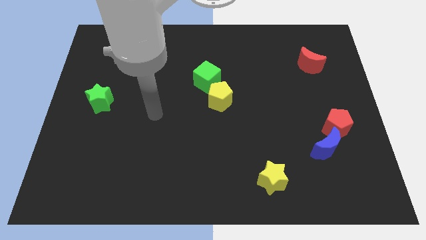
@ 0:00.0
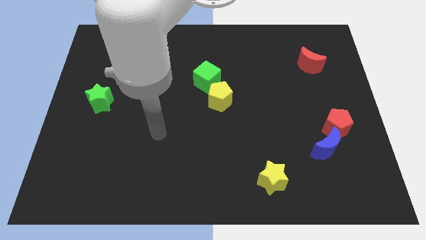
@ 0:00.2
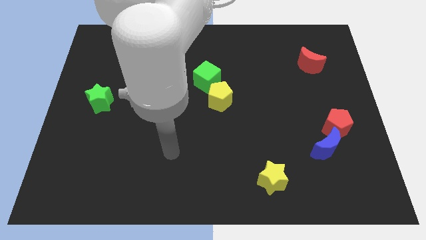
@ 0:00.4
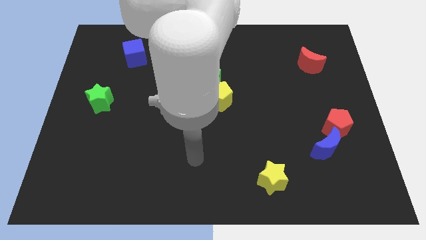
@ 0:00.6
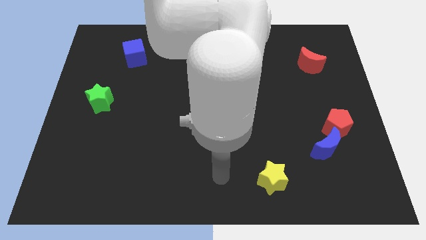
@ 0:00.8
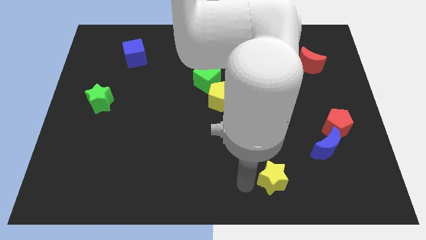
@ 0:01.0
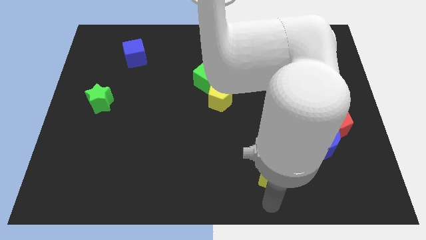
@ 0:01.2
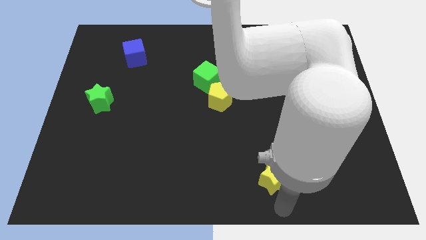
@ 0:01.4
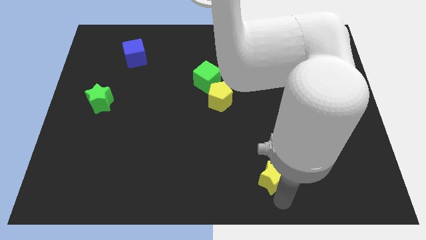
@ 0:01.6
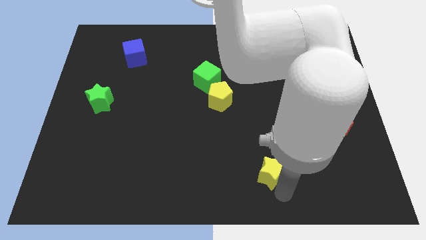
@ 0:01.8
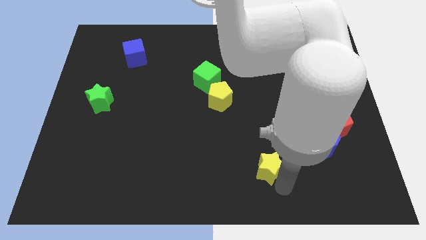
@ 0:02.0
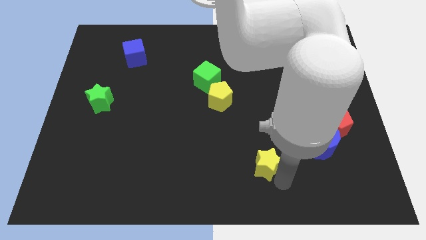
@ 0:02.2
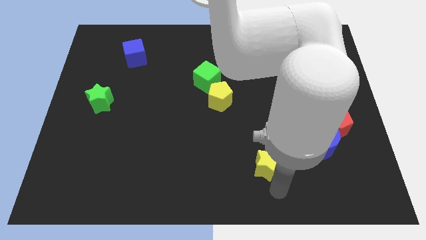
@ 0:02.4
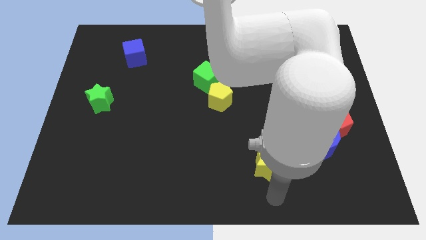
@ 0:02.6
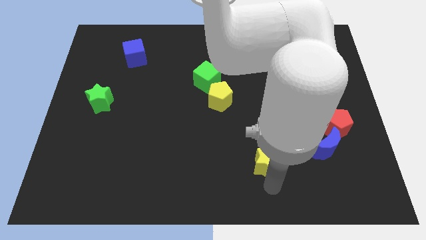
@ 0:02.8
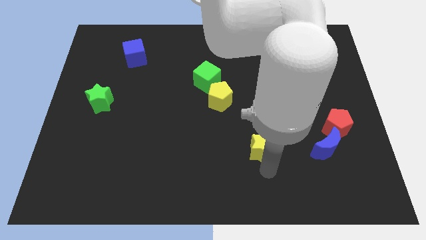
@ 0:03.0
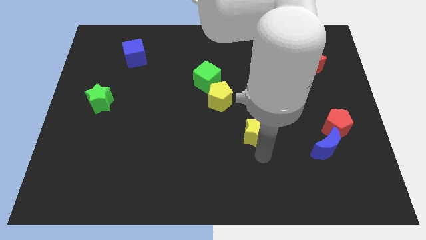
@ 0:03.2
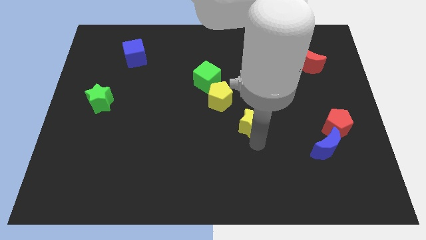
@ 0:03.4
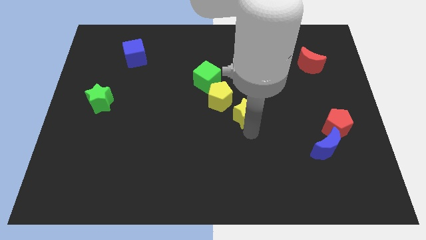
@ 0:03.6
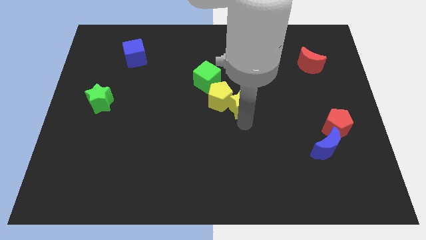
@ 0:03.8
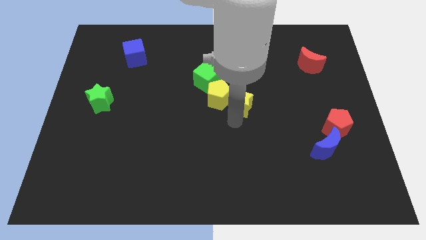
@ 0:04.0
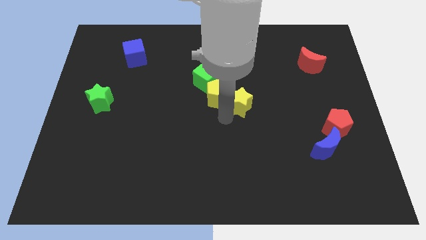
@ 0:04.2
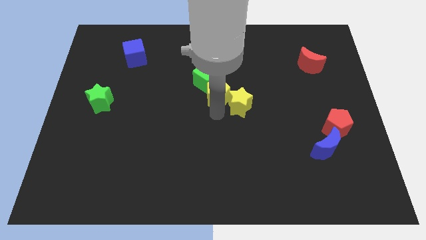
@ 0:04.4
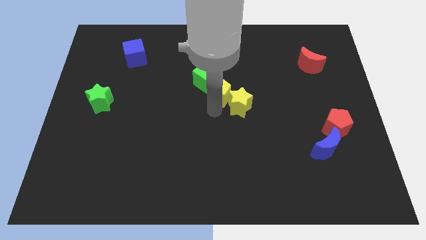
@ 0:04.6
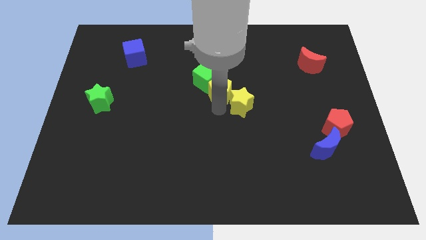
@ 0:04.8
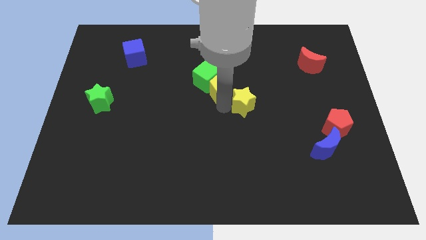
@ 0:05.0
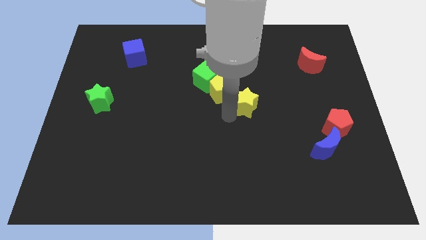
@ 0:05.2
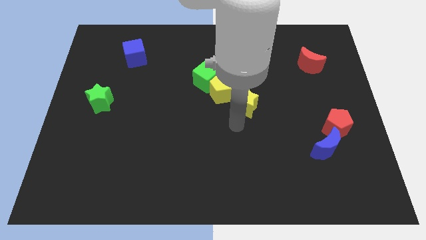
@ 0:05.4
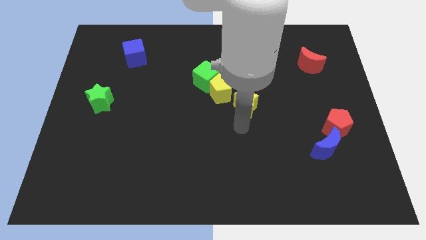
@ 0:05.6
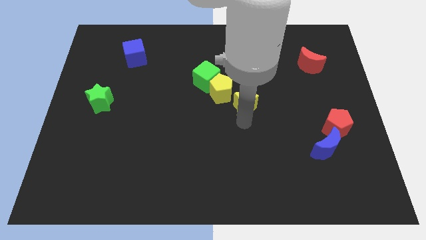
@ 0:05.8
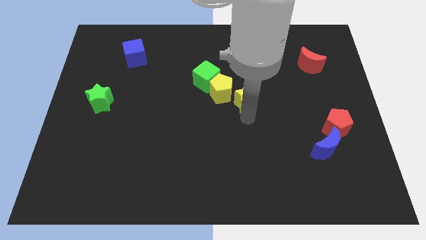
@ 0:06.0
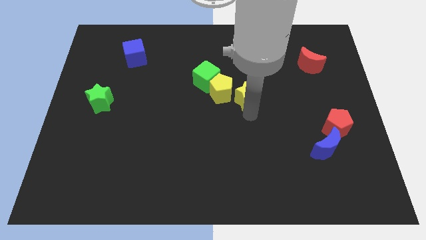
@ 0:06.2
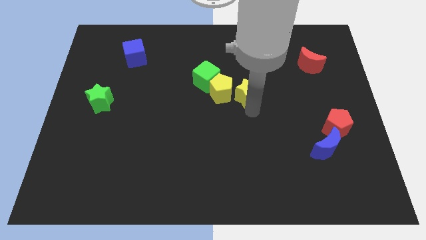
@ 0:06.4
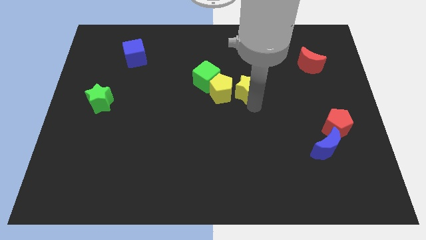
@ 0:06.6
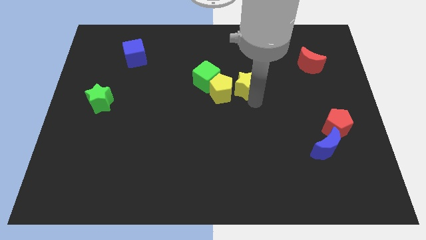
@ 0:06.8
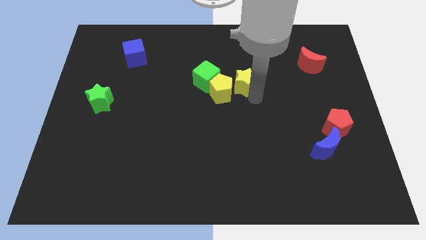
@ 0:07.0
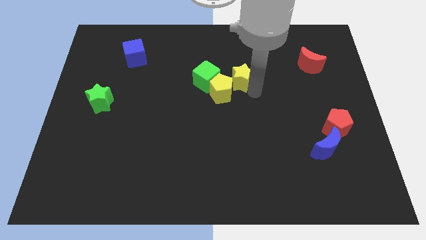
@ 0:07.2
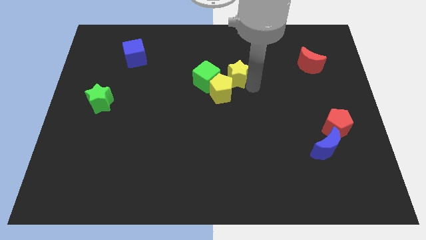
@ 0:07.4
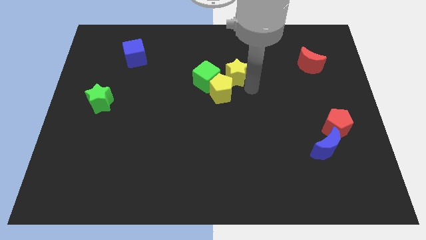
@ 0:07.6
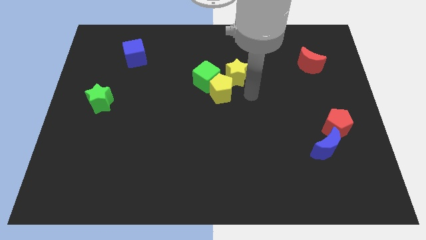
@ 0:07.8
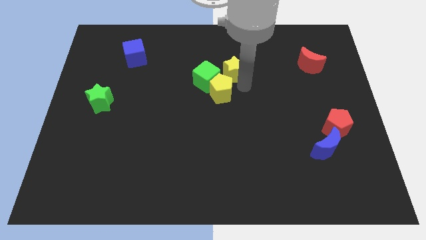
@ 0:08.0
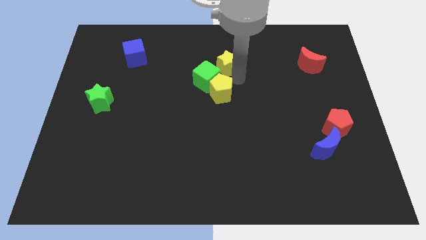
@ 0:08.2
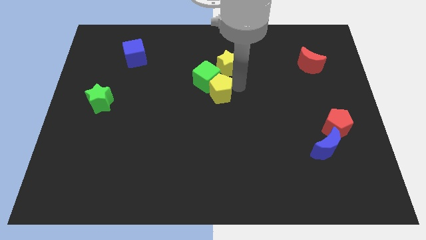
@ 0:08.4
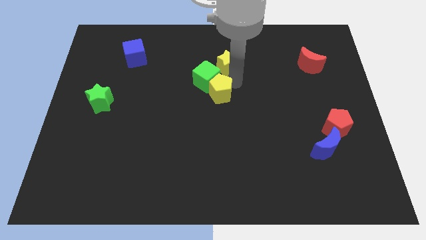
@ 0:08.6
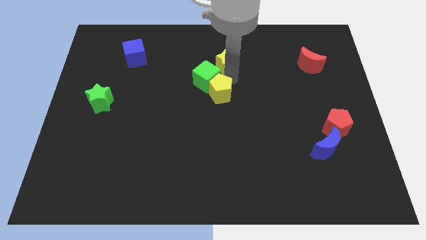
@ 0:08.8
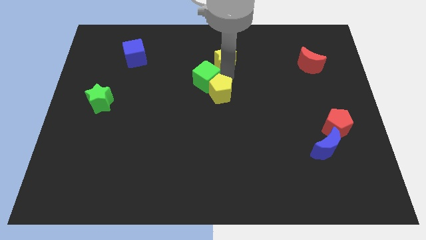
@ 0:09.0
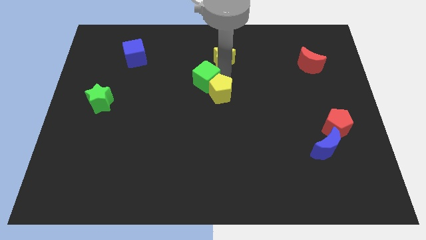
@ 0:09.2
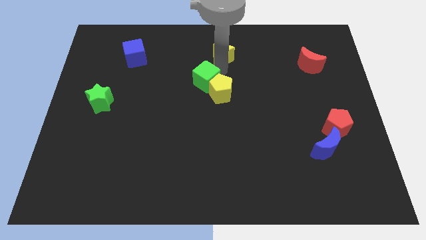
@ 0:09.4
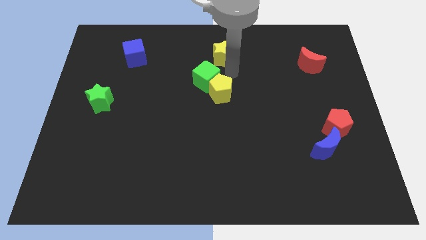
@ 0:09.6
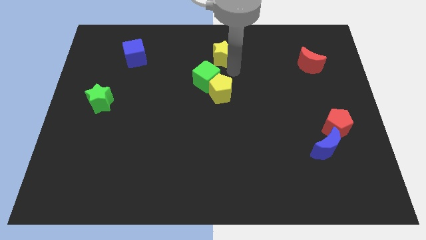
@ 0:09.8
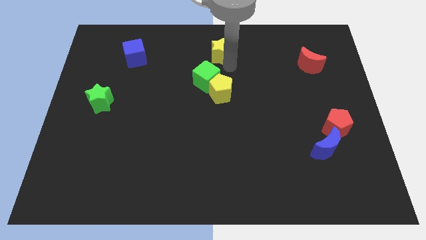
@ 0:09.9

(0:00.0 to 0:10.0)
push the yellow star to the top side

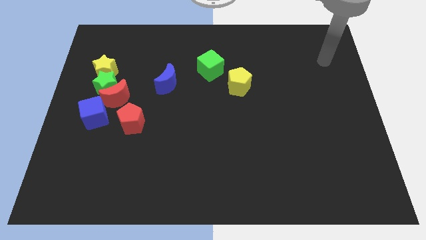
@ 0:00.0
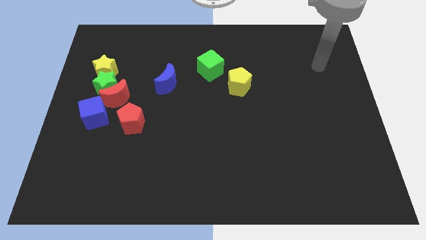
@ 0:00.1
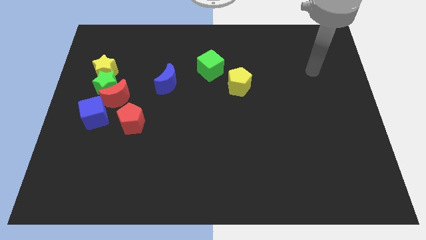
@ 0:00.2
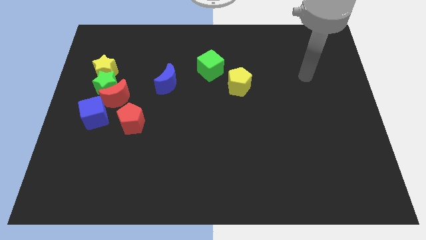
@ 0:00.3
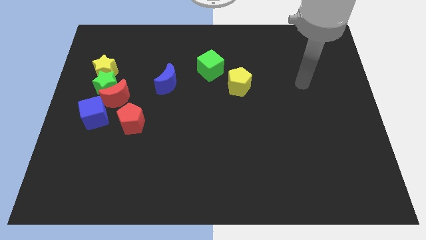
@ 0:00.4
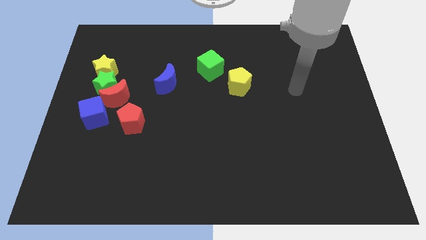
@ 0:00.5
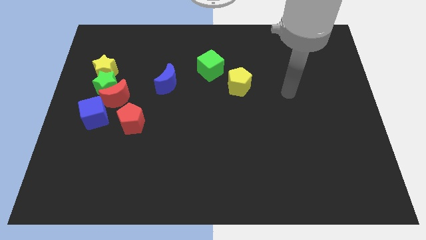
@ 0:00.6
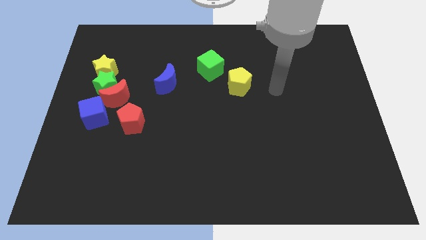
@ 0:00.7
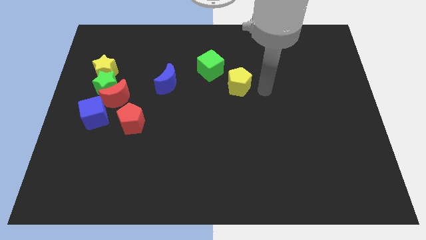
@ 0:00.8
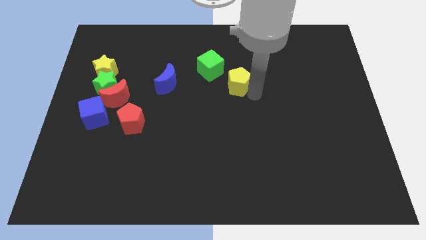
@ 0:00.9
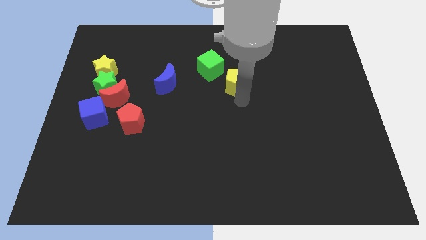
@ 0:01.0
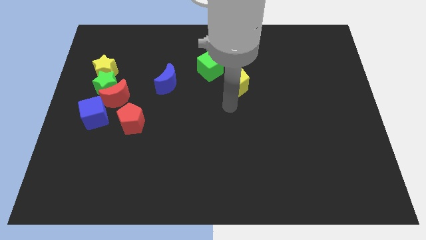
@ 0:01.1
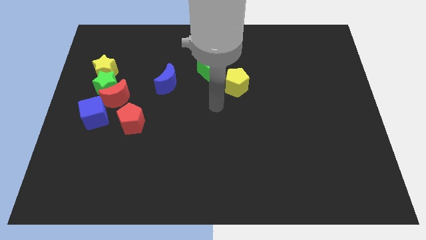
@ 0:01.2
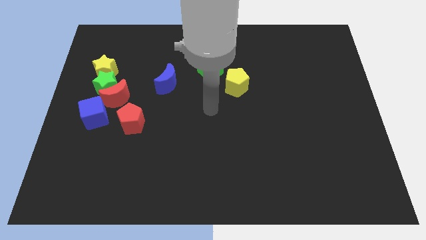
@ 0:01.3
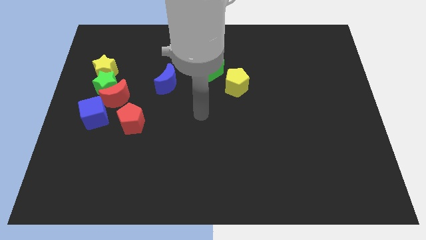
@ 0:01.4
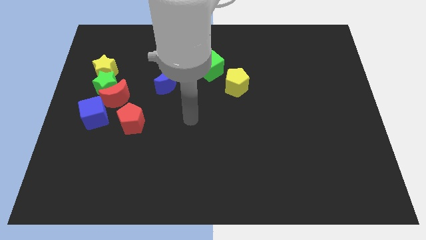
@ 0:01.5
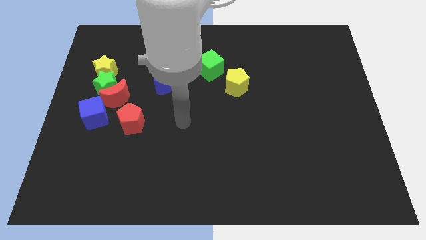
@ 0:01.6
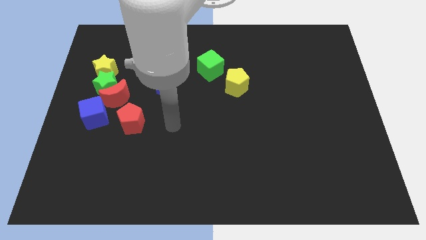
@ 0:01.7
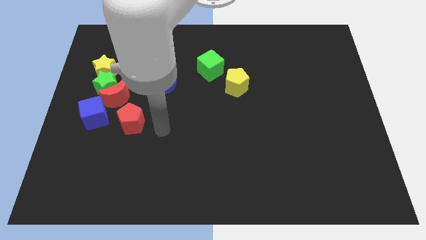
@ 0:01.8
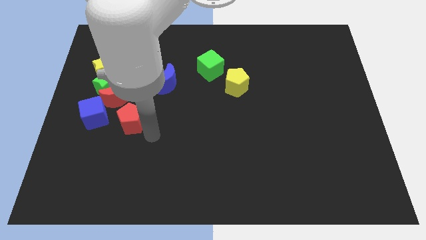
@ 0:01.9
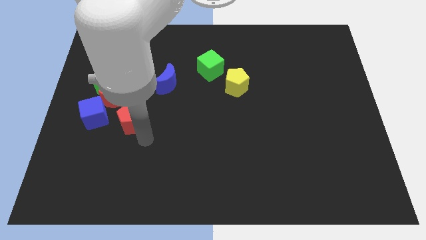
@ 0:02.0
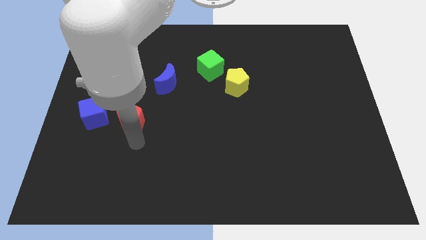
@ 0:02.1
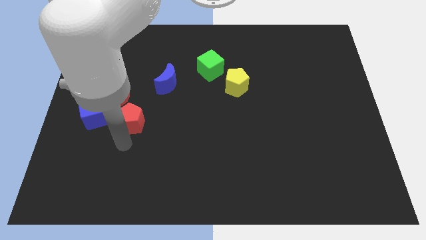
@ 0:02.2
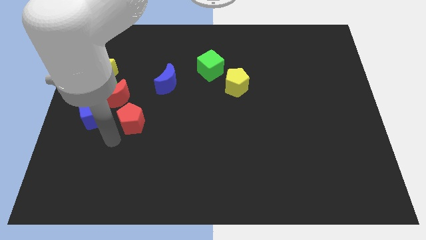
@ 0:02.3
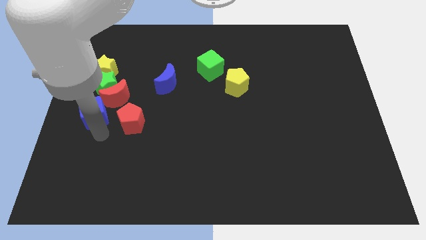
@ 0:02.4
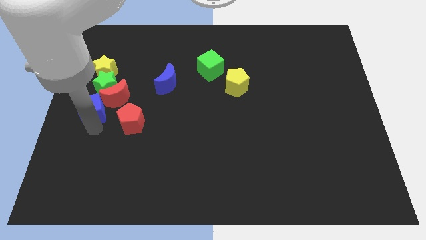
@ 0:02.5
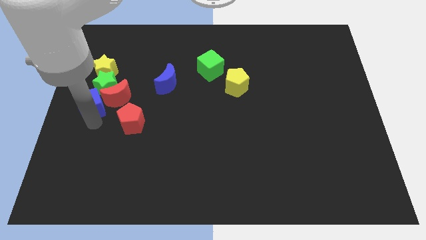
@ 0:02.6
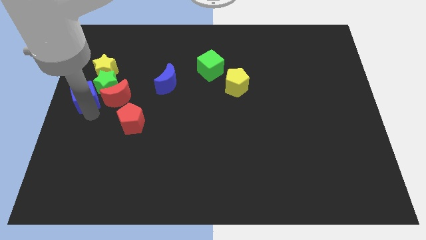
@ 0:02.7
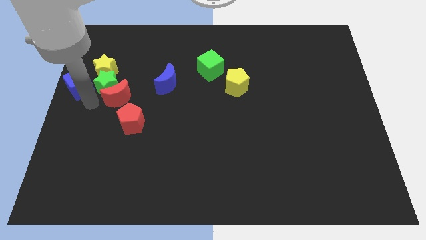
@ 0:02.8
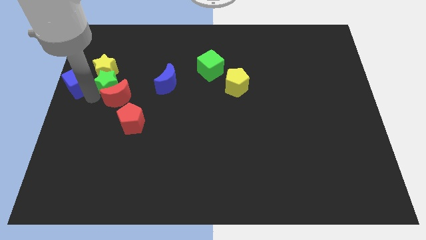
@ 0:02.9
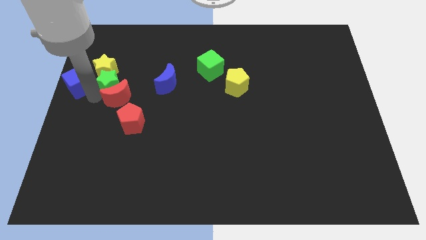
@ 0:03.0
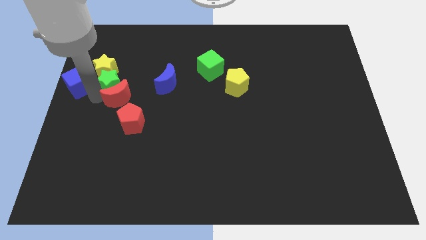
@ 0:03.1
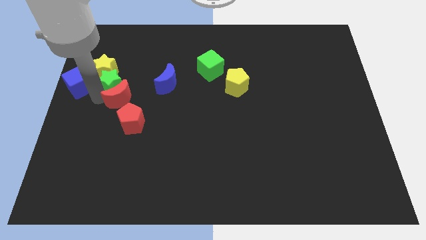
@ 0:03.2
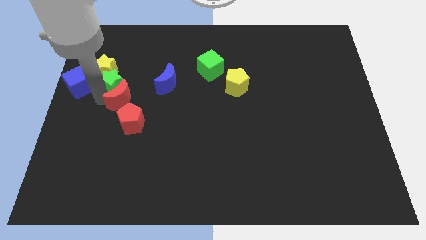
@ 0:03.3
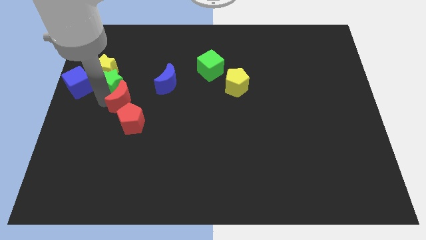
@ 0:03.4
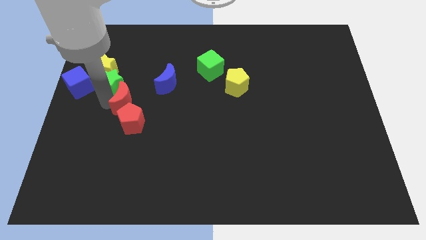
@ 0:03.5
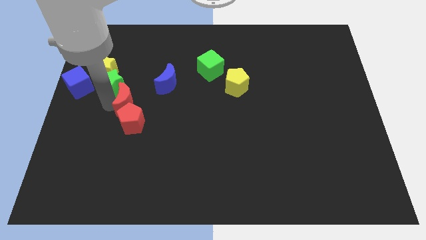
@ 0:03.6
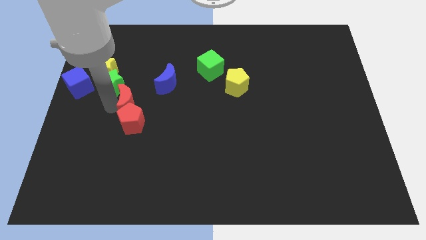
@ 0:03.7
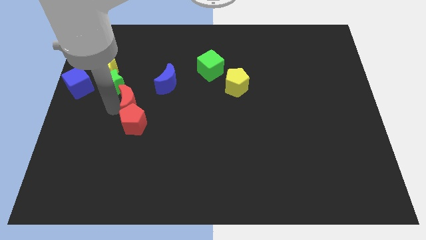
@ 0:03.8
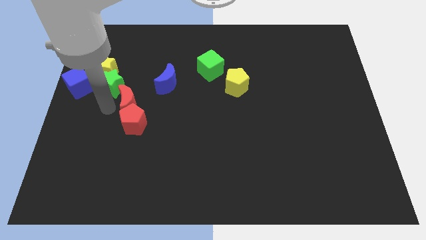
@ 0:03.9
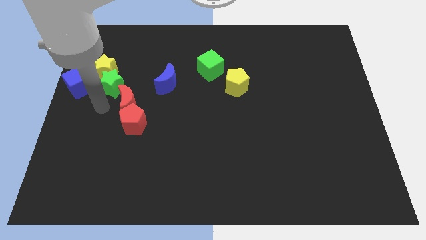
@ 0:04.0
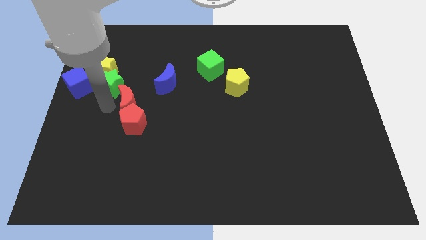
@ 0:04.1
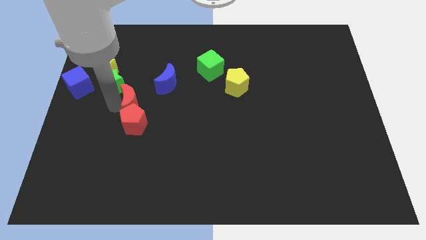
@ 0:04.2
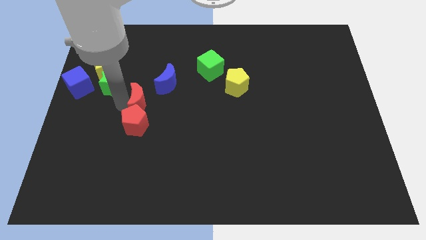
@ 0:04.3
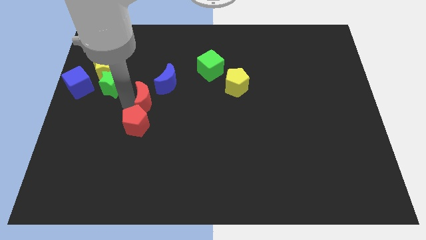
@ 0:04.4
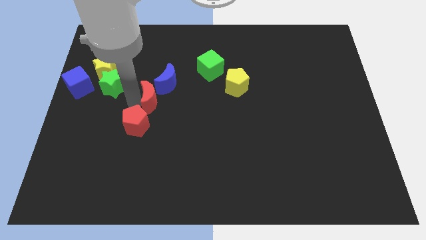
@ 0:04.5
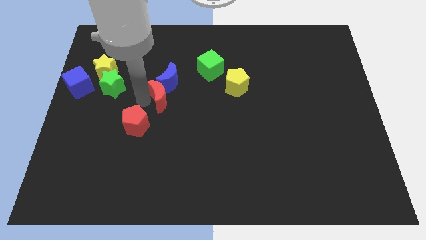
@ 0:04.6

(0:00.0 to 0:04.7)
move the red moon to the middle
